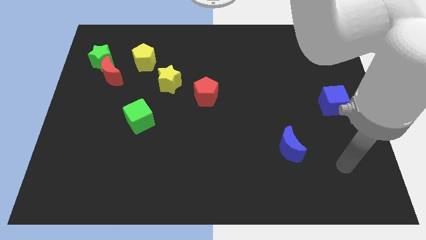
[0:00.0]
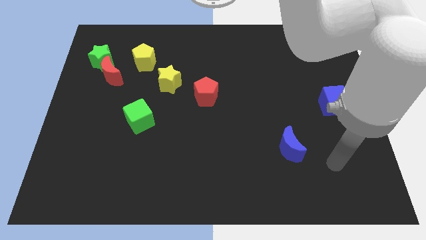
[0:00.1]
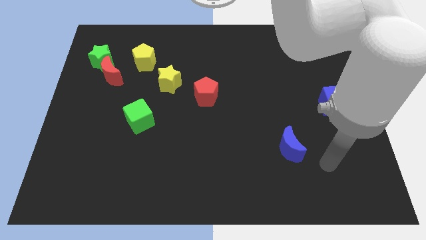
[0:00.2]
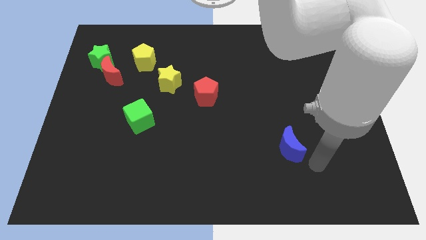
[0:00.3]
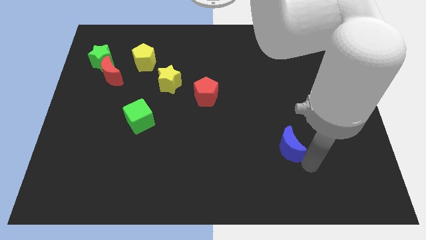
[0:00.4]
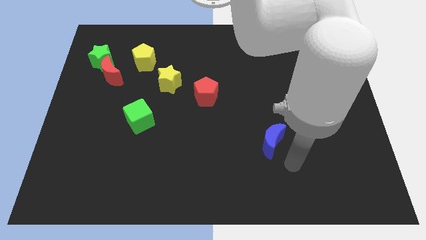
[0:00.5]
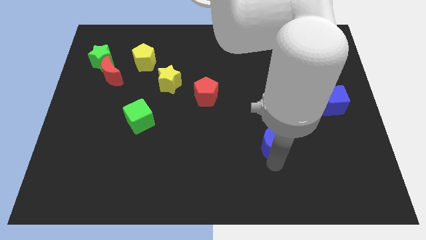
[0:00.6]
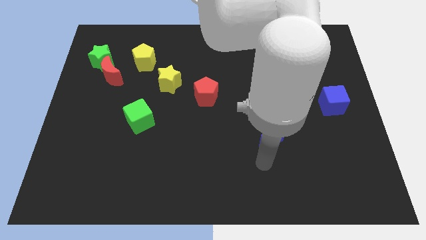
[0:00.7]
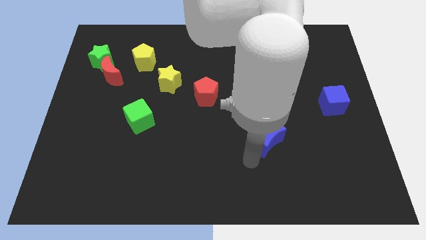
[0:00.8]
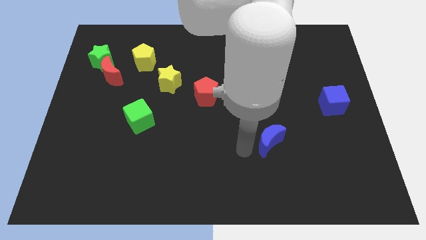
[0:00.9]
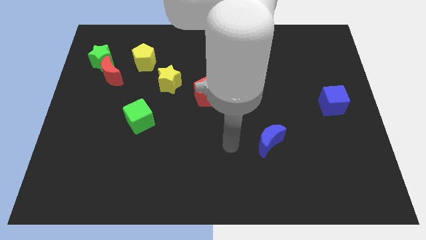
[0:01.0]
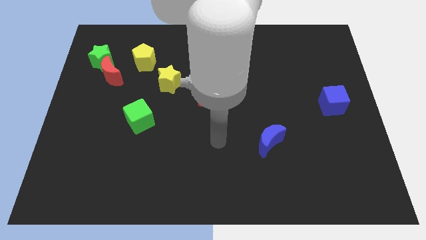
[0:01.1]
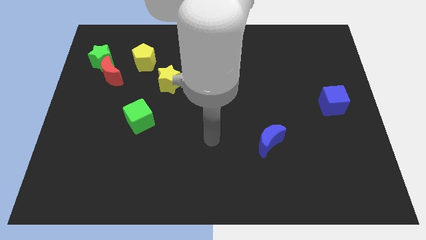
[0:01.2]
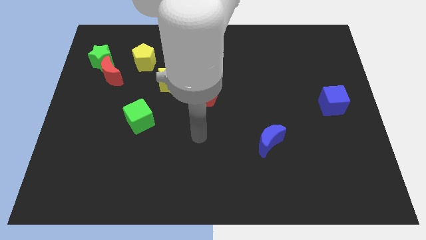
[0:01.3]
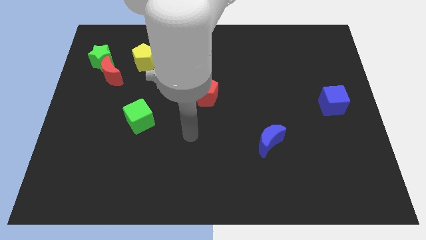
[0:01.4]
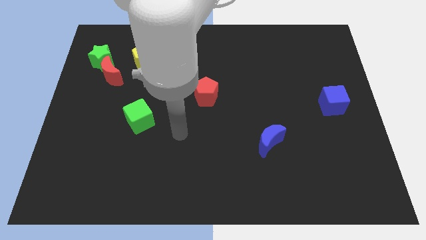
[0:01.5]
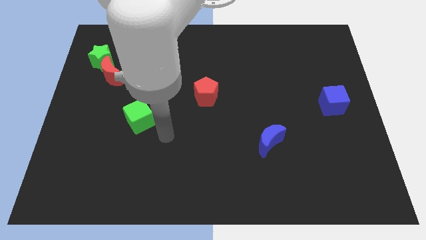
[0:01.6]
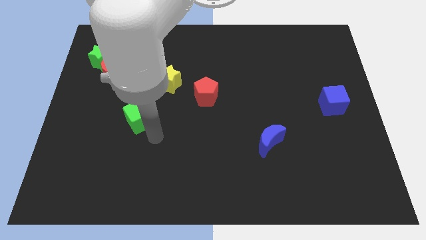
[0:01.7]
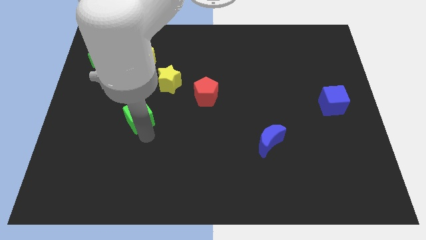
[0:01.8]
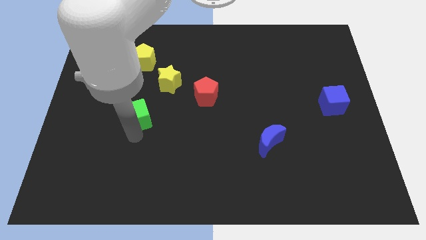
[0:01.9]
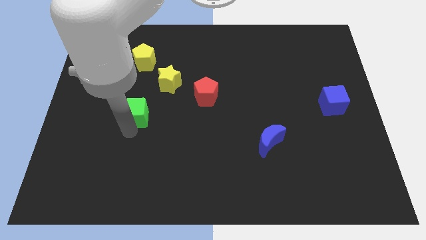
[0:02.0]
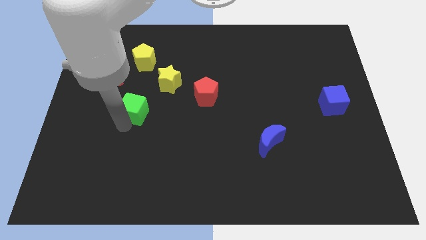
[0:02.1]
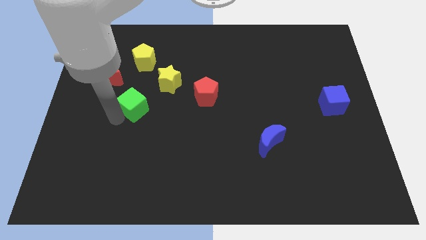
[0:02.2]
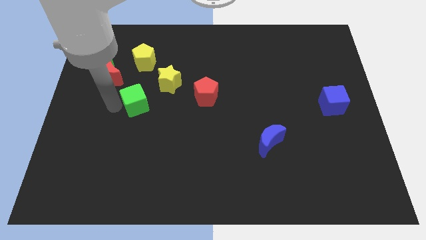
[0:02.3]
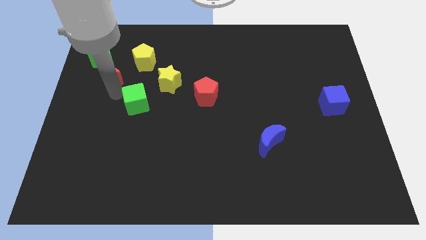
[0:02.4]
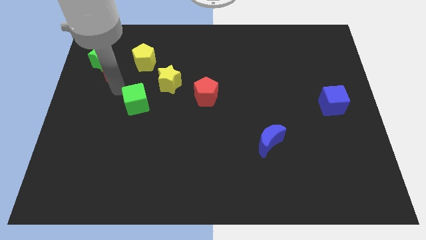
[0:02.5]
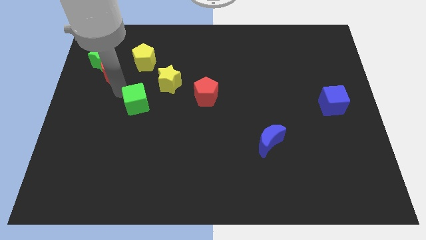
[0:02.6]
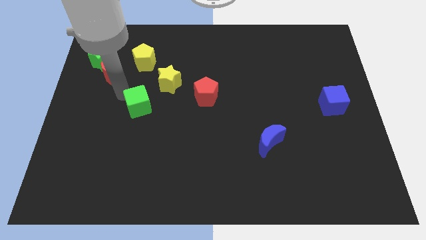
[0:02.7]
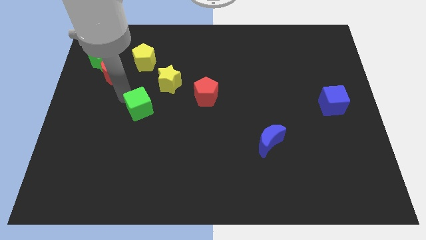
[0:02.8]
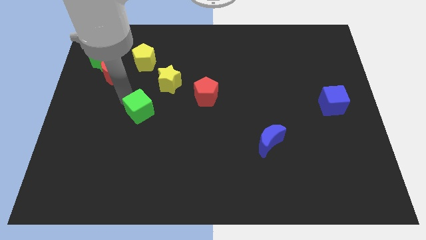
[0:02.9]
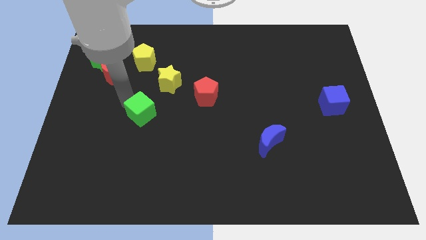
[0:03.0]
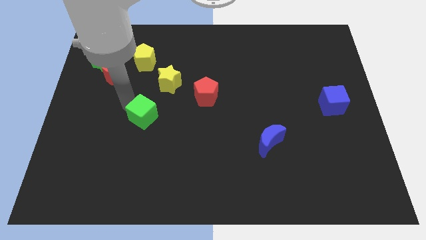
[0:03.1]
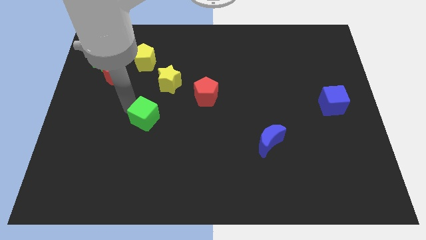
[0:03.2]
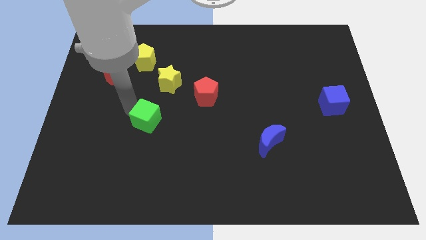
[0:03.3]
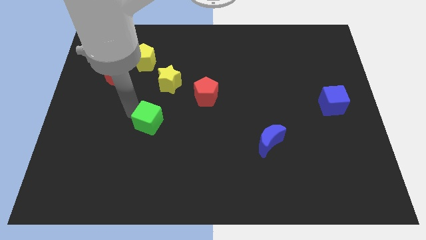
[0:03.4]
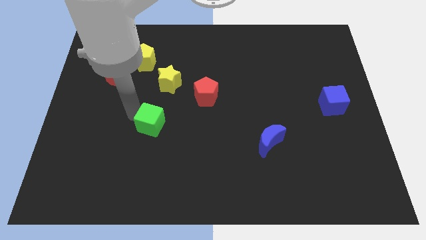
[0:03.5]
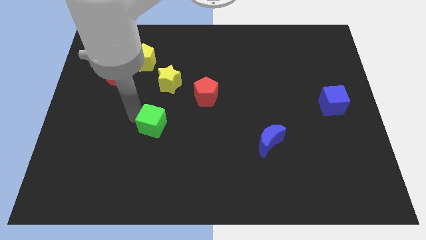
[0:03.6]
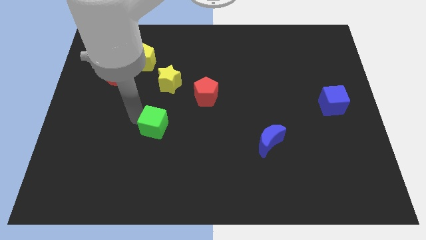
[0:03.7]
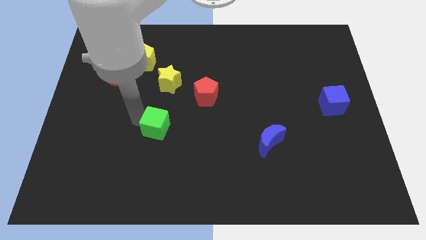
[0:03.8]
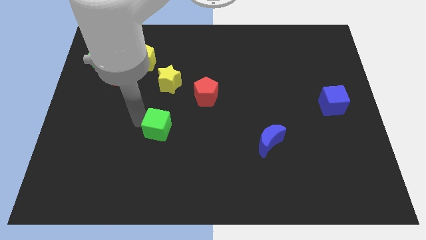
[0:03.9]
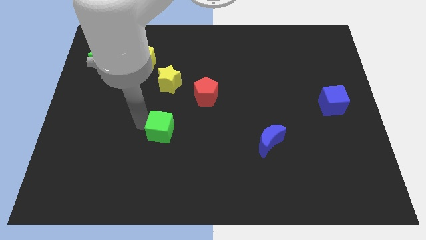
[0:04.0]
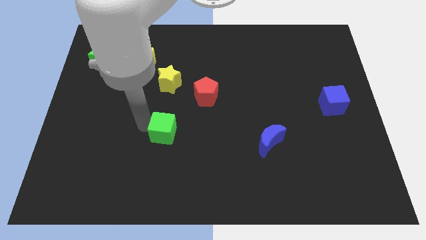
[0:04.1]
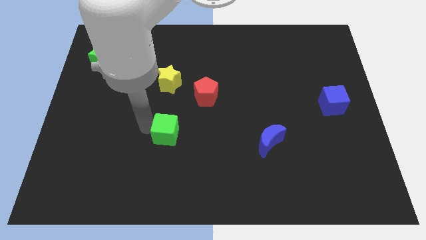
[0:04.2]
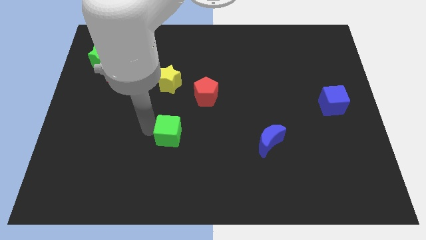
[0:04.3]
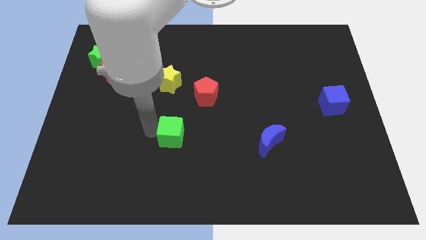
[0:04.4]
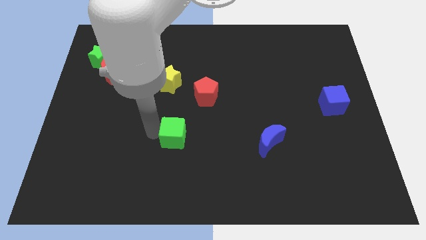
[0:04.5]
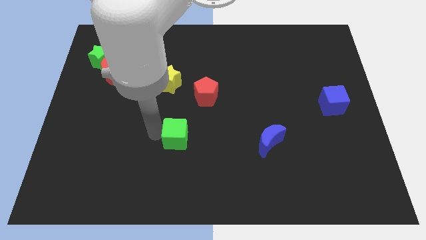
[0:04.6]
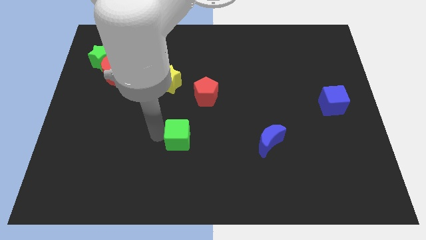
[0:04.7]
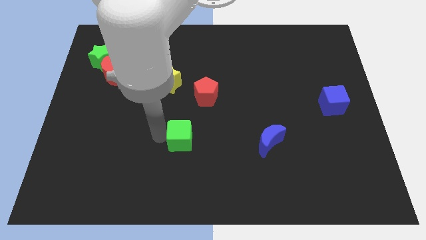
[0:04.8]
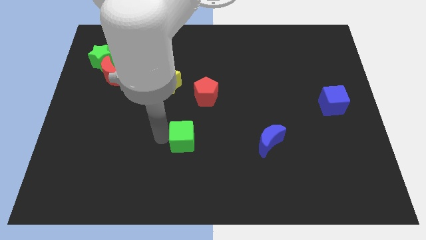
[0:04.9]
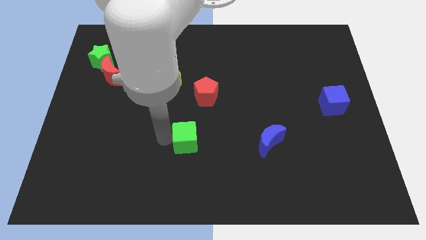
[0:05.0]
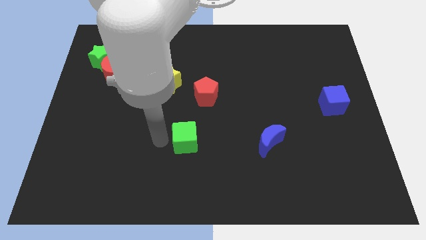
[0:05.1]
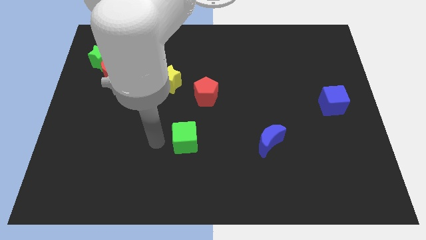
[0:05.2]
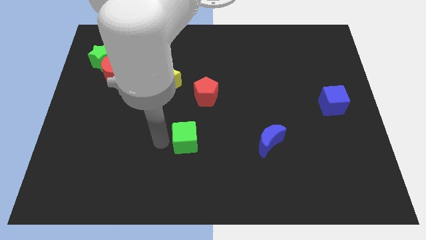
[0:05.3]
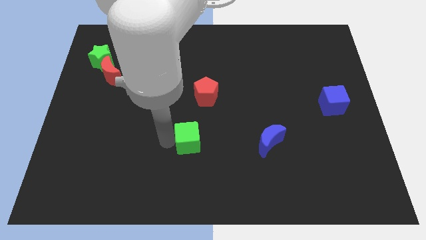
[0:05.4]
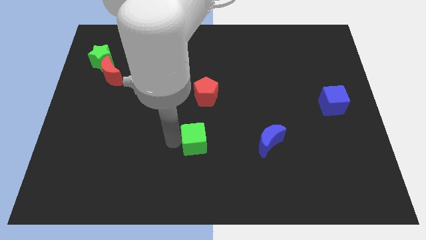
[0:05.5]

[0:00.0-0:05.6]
put the green cube to the left of the blue moon

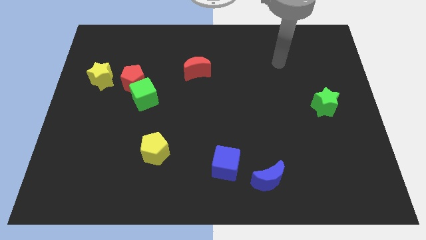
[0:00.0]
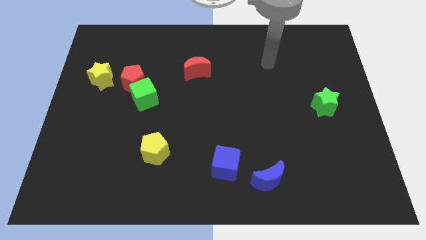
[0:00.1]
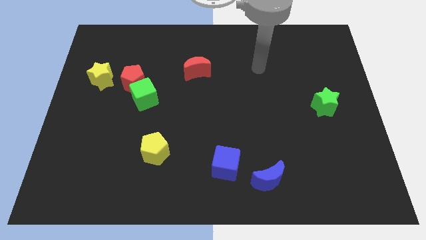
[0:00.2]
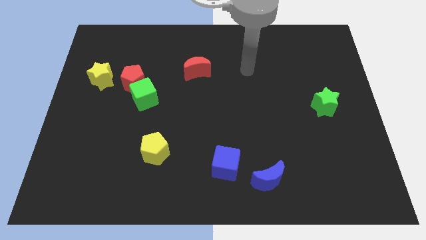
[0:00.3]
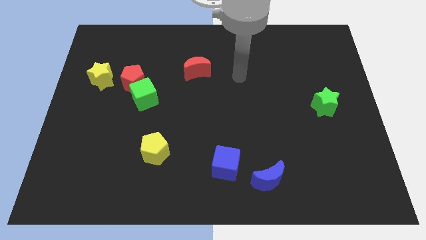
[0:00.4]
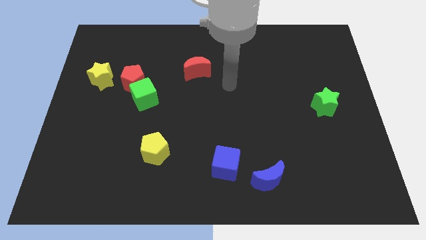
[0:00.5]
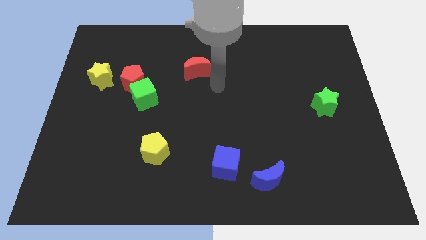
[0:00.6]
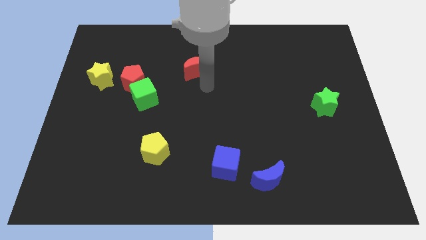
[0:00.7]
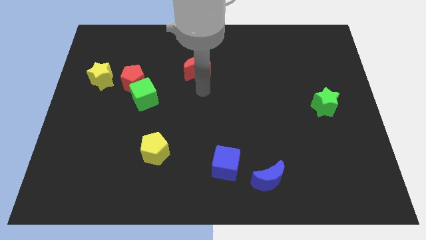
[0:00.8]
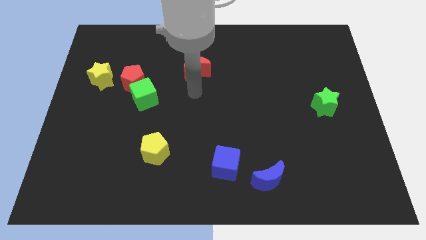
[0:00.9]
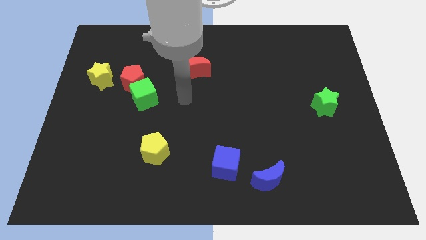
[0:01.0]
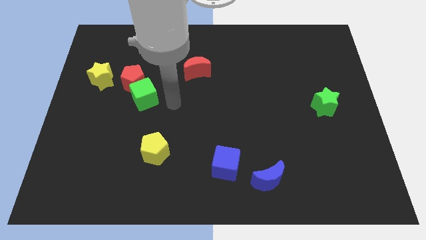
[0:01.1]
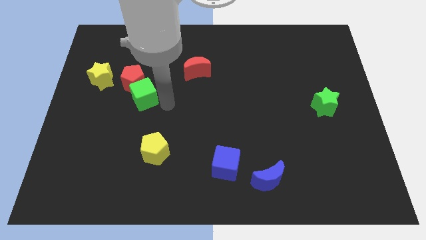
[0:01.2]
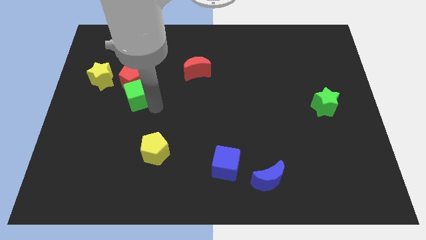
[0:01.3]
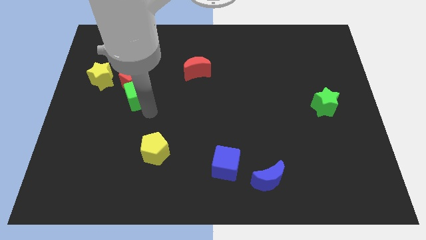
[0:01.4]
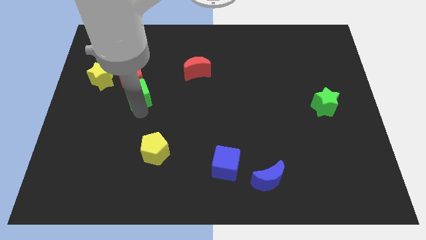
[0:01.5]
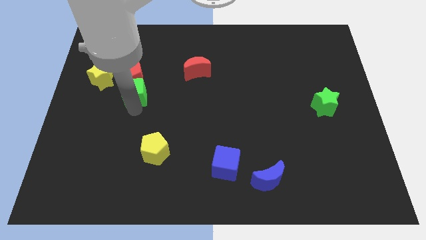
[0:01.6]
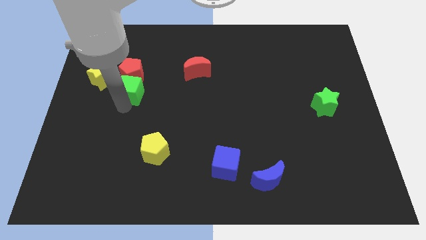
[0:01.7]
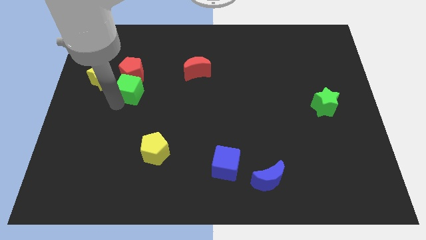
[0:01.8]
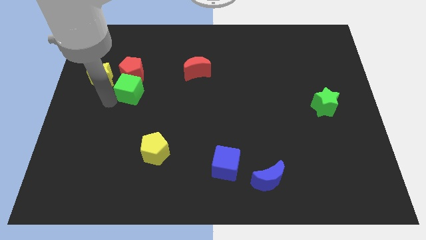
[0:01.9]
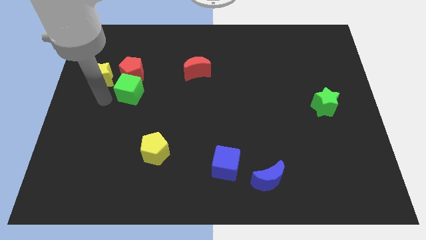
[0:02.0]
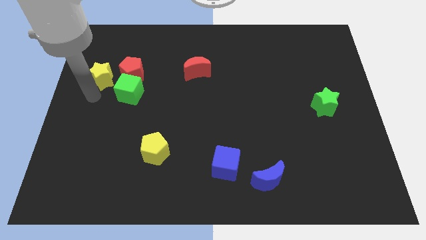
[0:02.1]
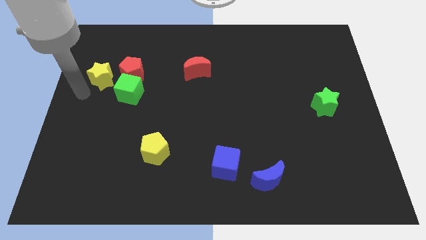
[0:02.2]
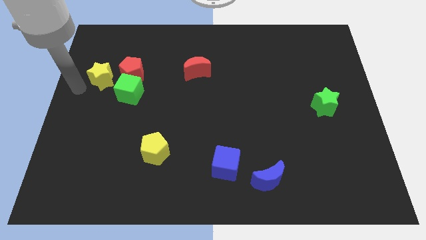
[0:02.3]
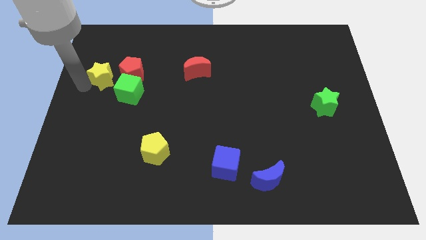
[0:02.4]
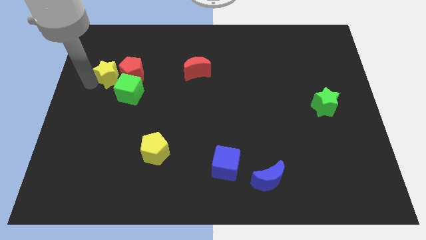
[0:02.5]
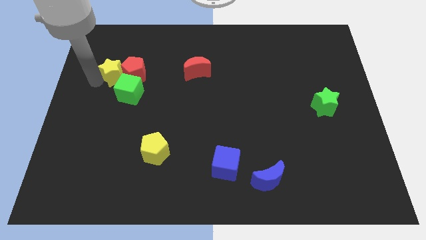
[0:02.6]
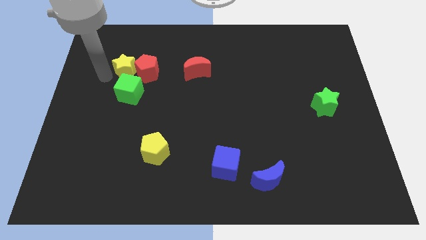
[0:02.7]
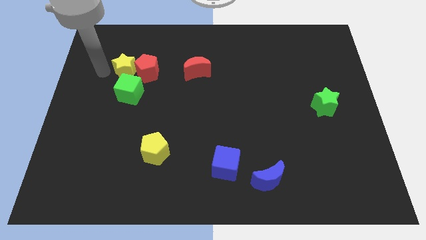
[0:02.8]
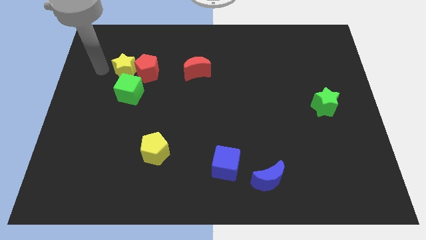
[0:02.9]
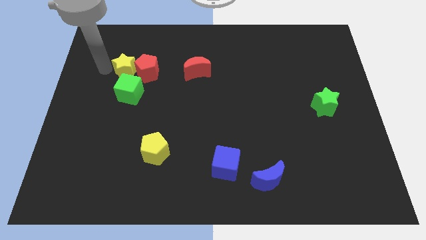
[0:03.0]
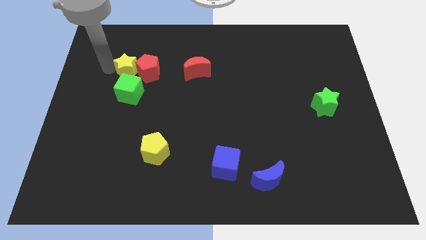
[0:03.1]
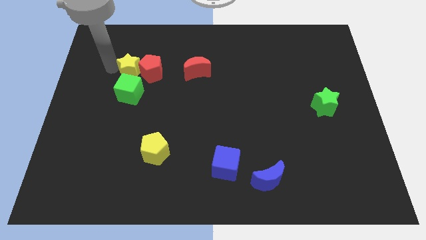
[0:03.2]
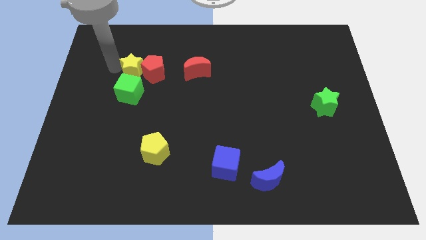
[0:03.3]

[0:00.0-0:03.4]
slide the yellow star left of the red moon
